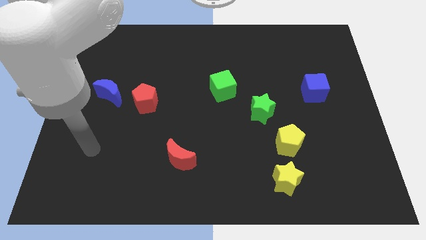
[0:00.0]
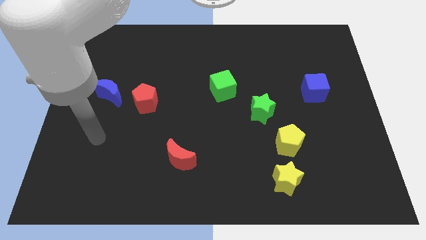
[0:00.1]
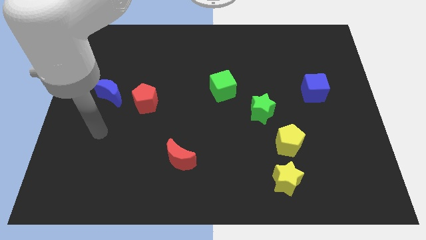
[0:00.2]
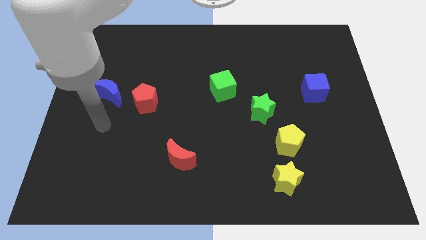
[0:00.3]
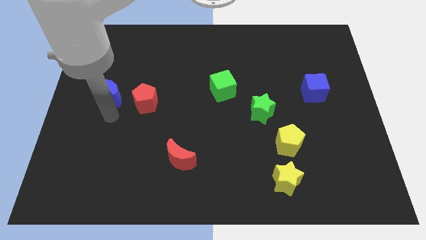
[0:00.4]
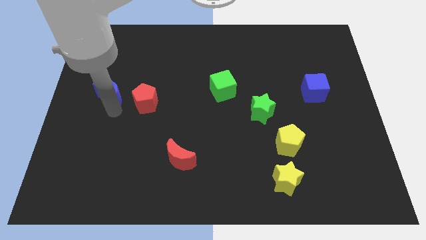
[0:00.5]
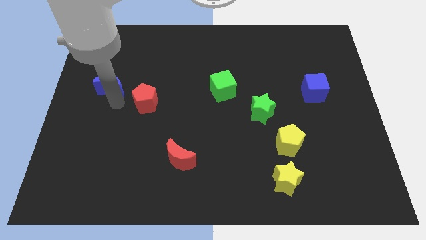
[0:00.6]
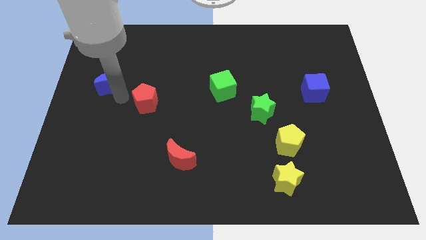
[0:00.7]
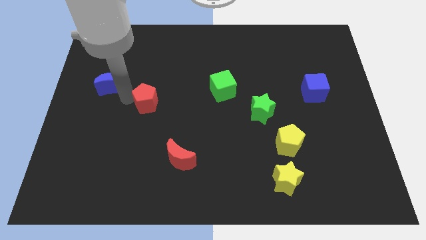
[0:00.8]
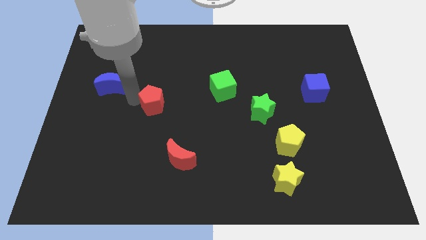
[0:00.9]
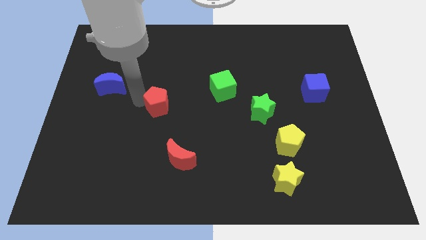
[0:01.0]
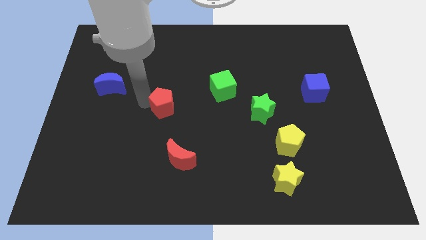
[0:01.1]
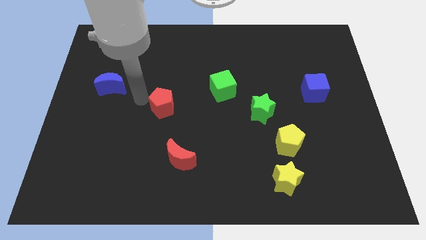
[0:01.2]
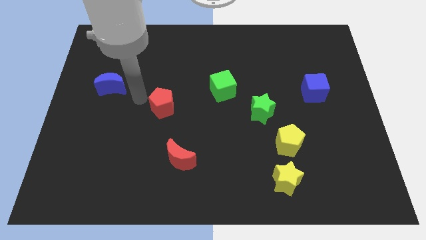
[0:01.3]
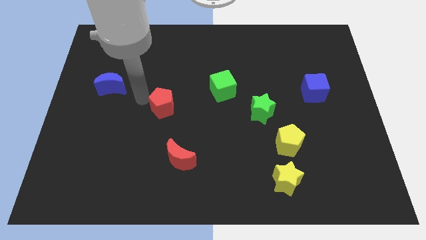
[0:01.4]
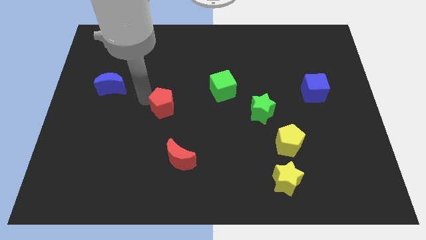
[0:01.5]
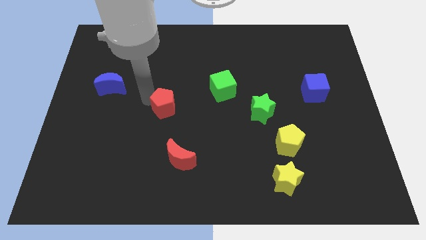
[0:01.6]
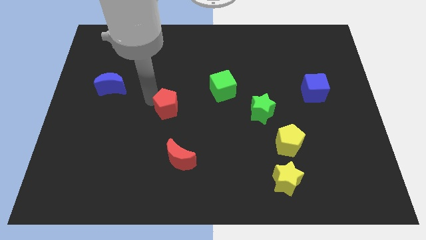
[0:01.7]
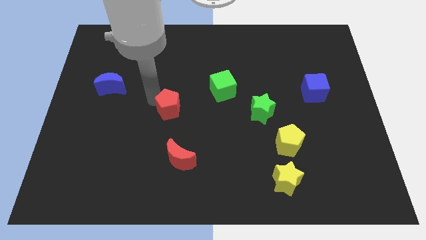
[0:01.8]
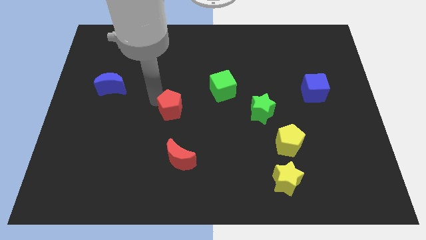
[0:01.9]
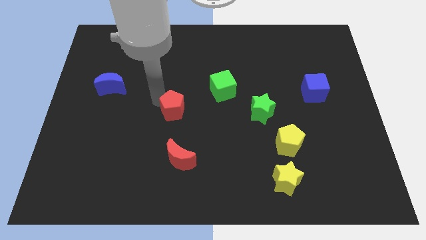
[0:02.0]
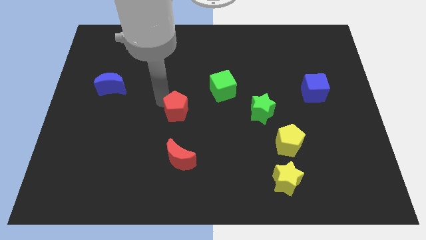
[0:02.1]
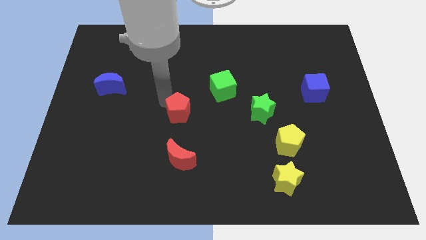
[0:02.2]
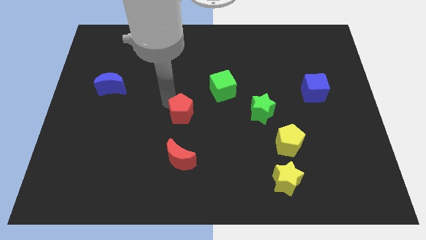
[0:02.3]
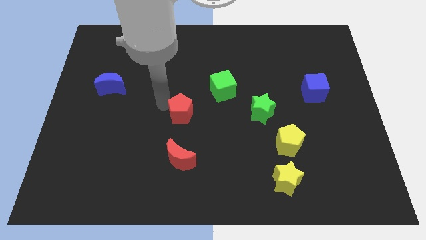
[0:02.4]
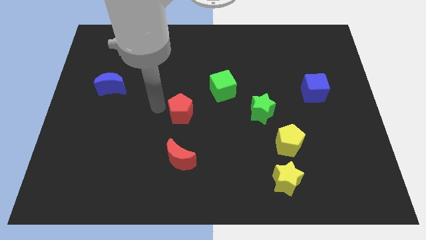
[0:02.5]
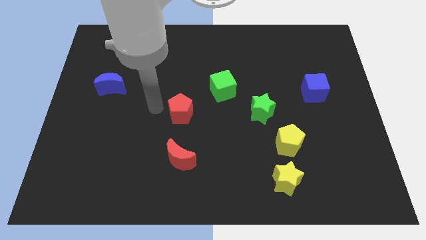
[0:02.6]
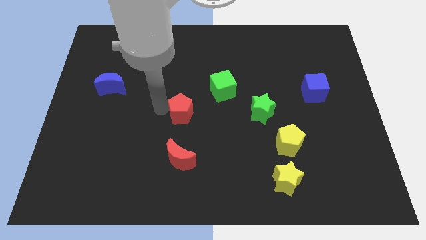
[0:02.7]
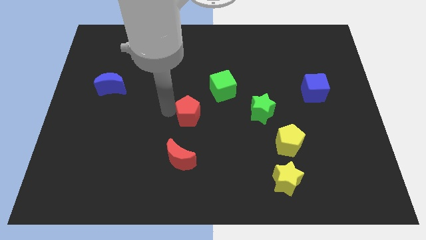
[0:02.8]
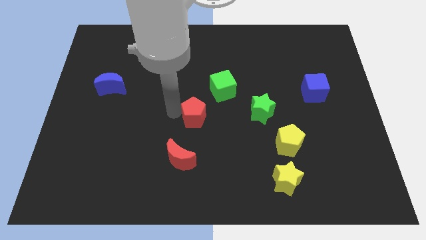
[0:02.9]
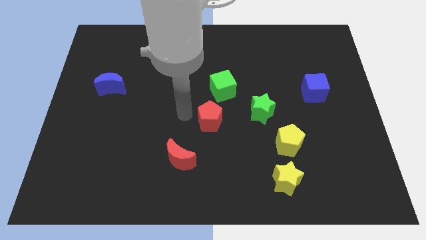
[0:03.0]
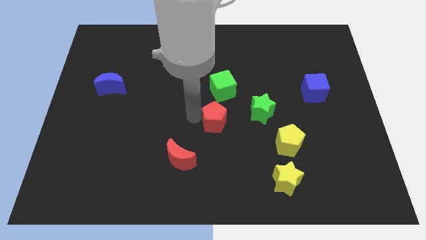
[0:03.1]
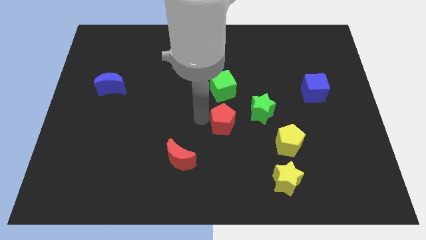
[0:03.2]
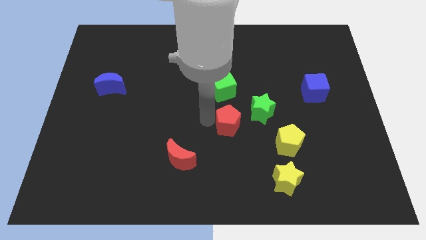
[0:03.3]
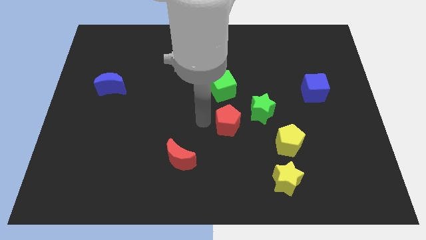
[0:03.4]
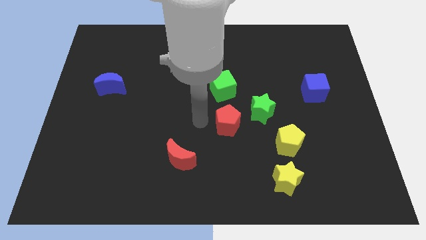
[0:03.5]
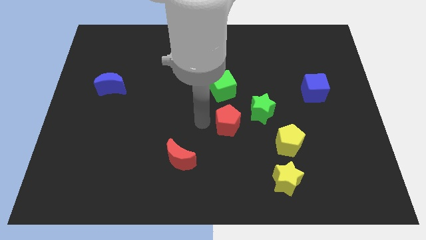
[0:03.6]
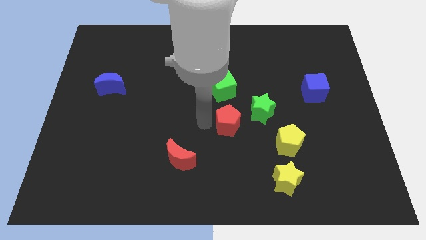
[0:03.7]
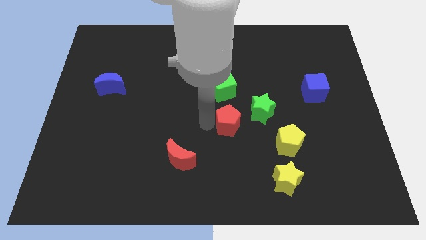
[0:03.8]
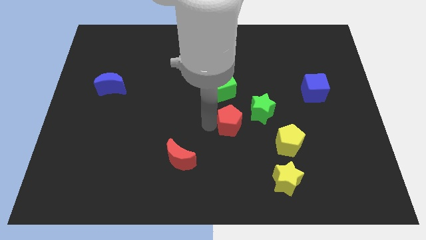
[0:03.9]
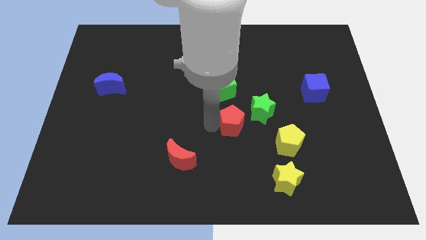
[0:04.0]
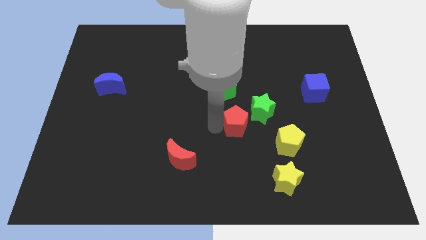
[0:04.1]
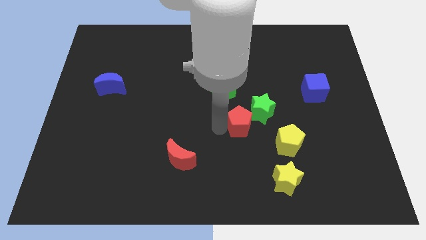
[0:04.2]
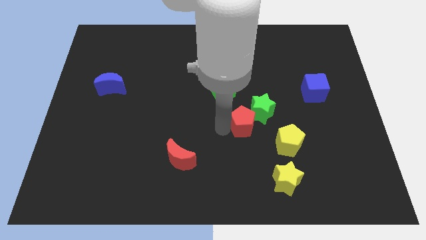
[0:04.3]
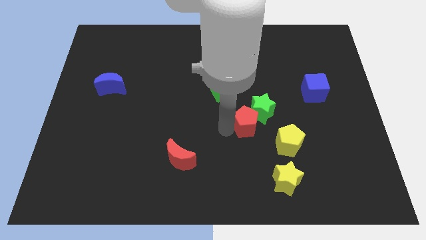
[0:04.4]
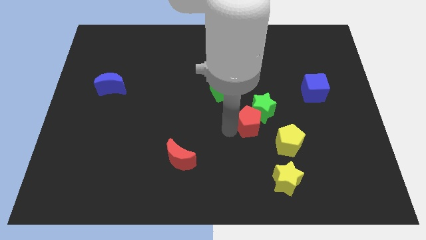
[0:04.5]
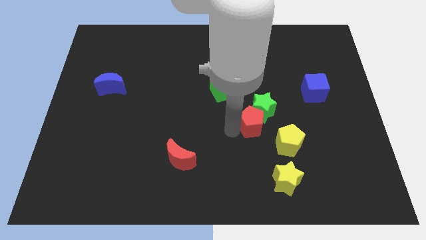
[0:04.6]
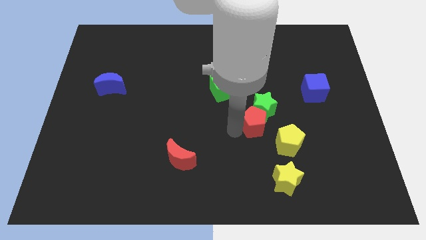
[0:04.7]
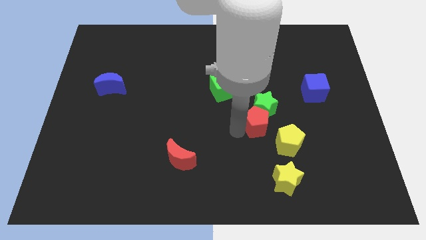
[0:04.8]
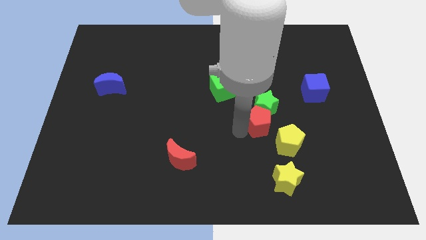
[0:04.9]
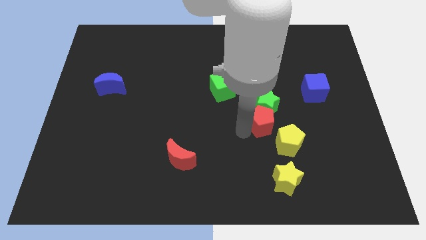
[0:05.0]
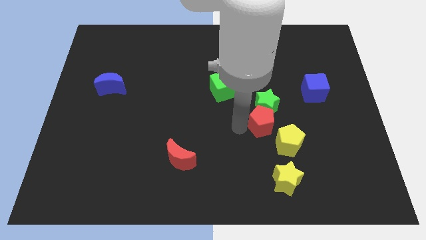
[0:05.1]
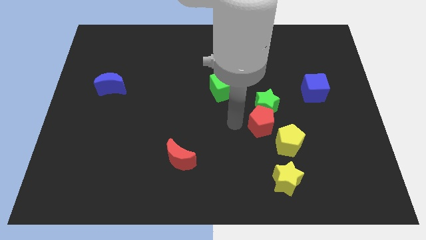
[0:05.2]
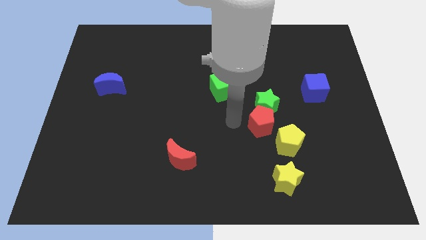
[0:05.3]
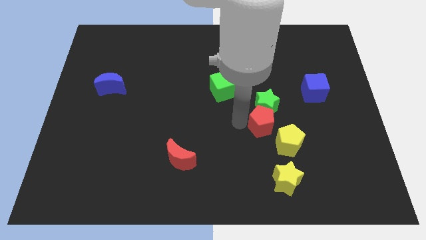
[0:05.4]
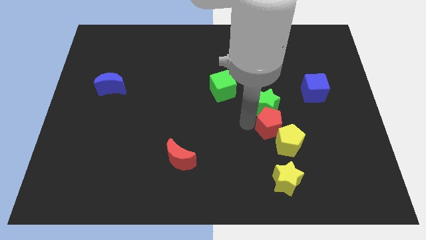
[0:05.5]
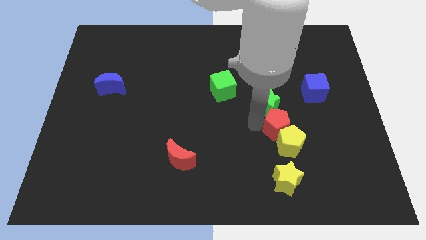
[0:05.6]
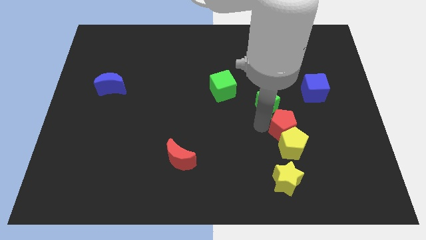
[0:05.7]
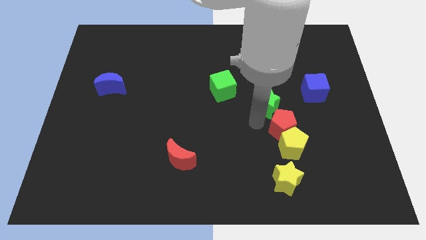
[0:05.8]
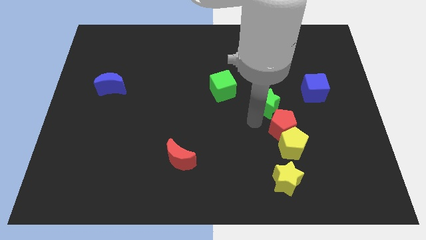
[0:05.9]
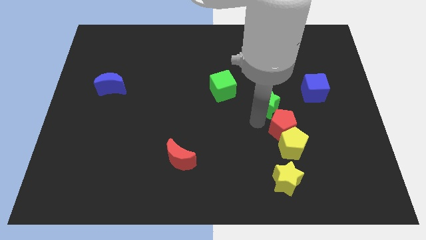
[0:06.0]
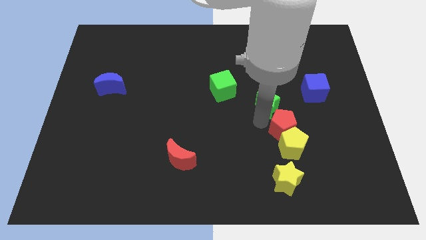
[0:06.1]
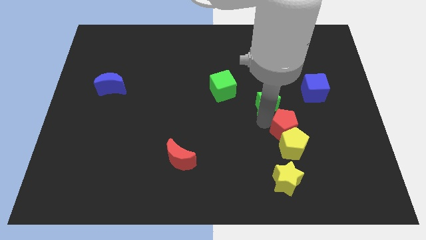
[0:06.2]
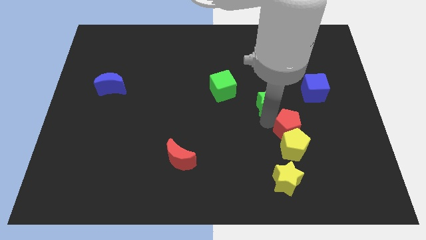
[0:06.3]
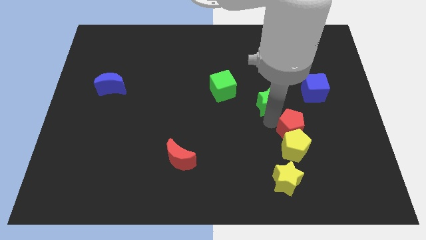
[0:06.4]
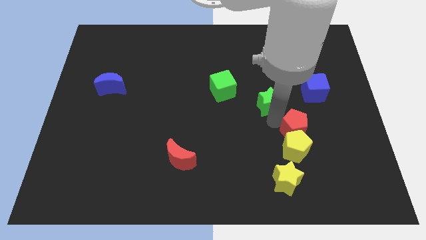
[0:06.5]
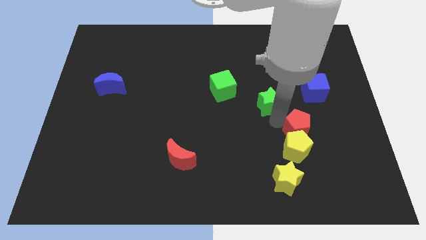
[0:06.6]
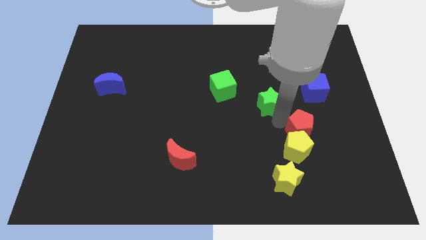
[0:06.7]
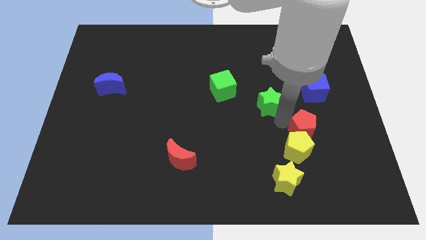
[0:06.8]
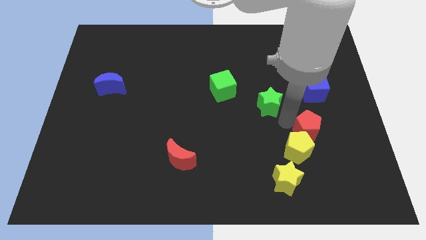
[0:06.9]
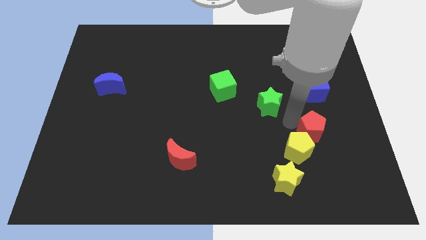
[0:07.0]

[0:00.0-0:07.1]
put the red pentagon just right of the yellow pentagon
